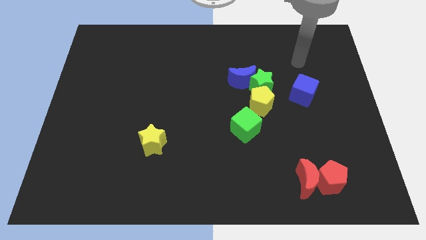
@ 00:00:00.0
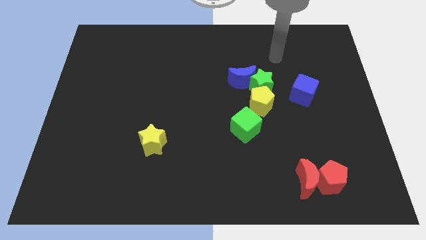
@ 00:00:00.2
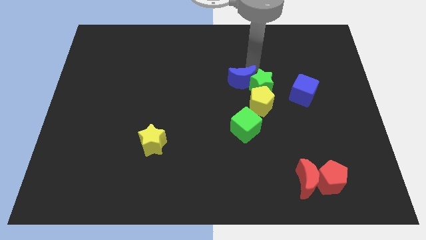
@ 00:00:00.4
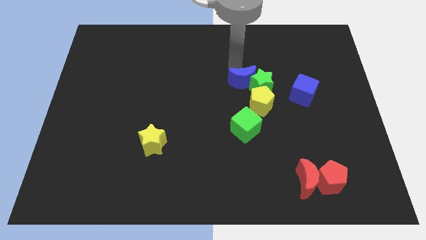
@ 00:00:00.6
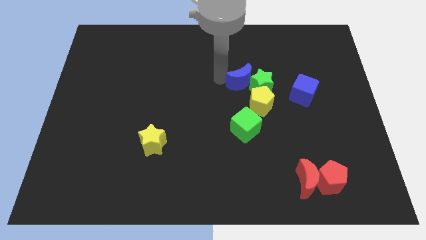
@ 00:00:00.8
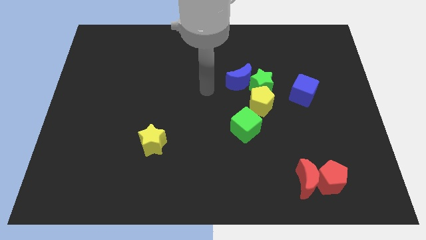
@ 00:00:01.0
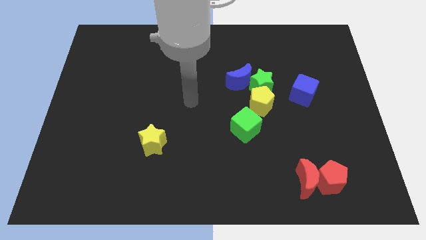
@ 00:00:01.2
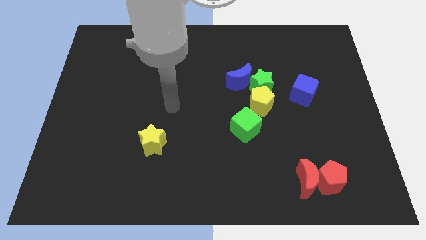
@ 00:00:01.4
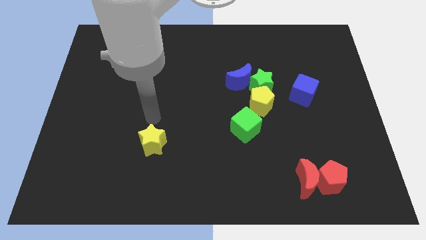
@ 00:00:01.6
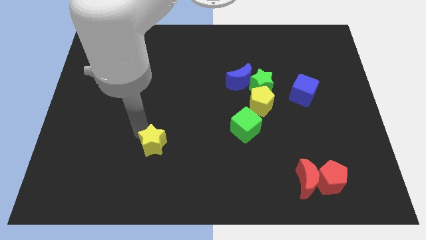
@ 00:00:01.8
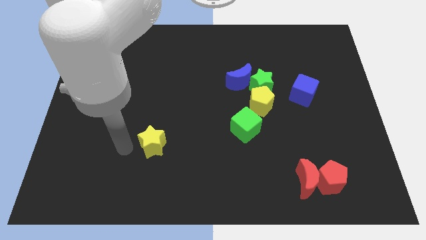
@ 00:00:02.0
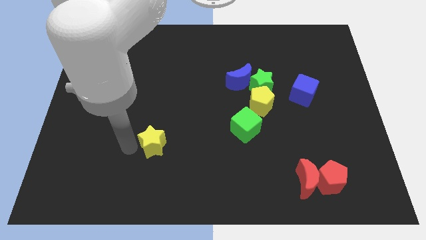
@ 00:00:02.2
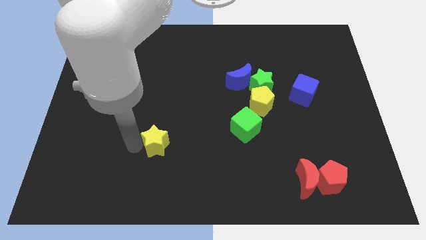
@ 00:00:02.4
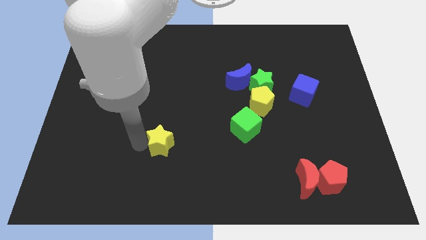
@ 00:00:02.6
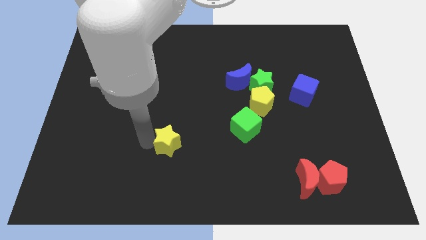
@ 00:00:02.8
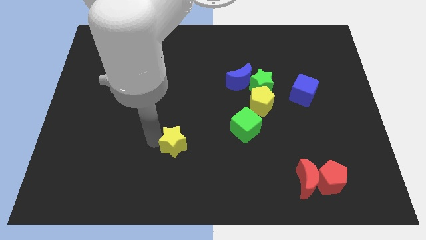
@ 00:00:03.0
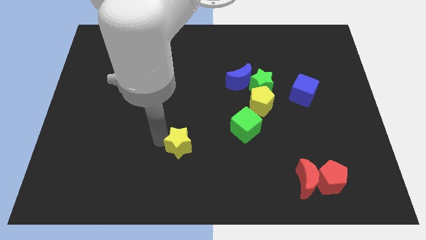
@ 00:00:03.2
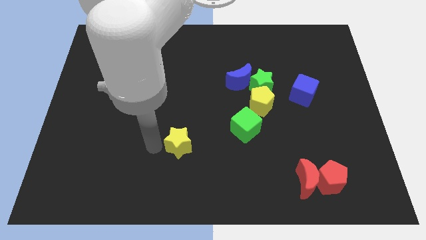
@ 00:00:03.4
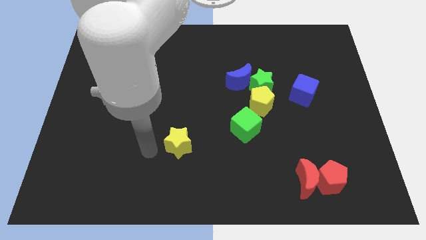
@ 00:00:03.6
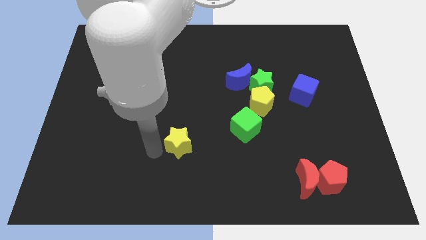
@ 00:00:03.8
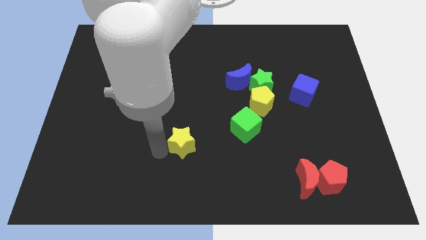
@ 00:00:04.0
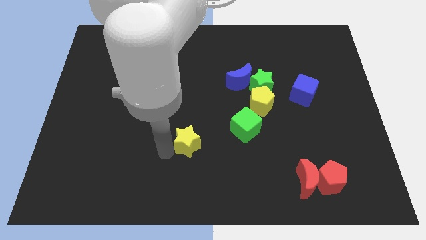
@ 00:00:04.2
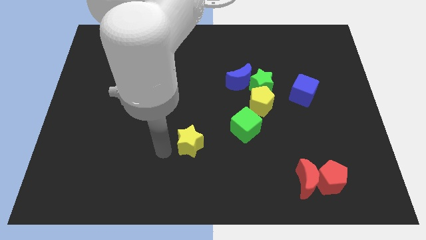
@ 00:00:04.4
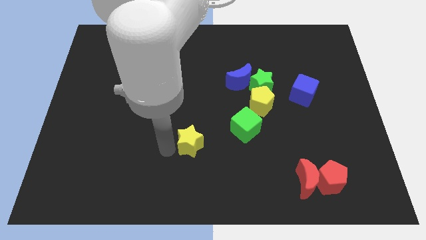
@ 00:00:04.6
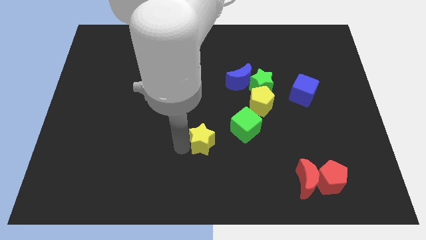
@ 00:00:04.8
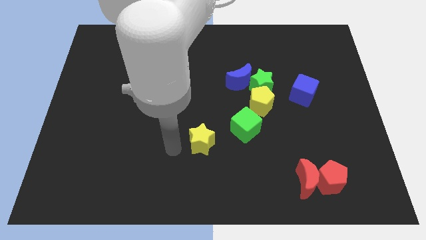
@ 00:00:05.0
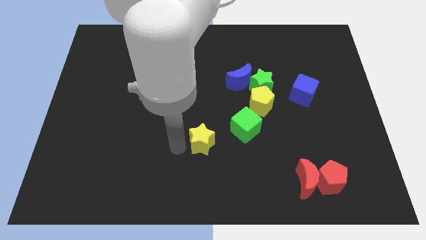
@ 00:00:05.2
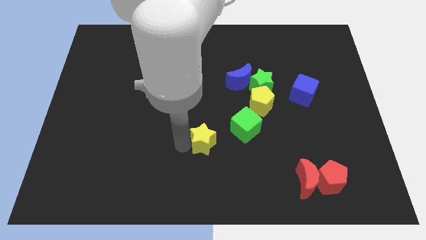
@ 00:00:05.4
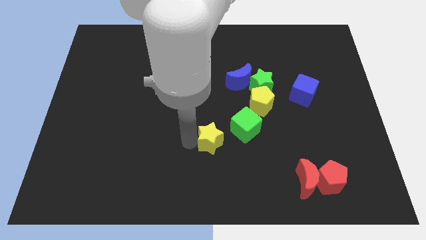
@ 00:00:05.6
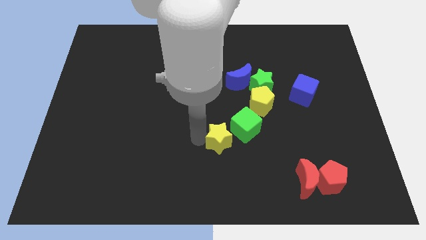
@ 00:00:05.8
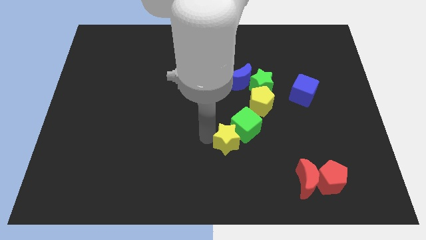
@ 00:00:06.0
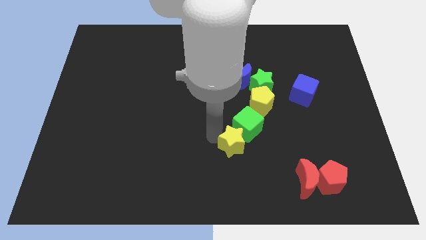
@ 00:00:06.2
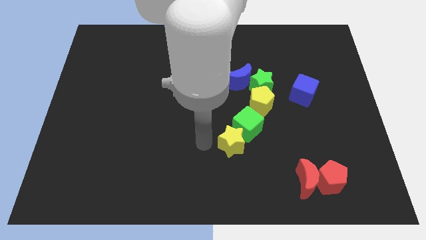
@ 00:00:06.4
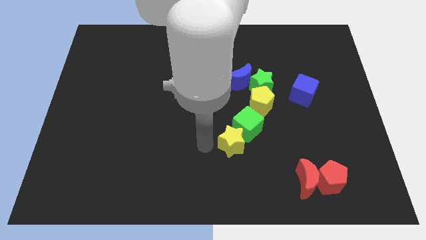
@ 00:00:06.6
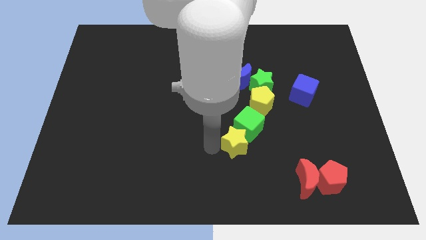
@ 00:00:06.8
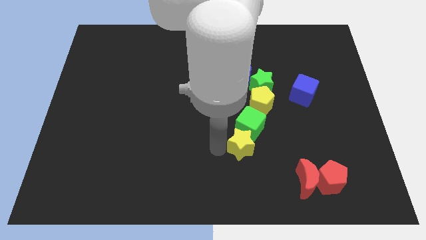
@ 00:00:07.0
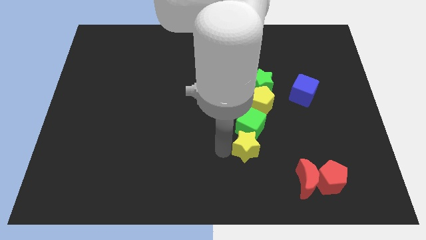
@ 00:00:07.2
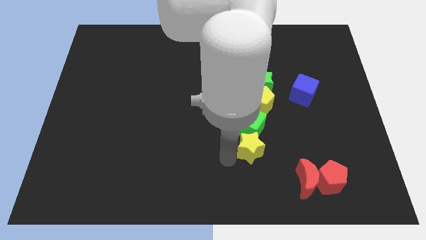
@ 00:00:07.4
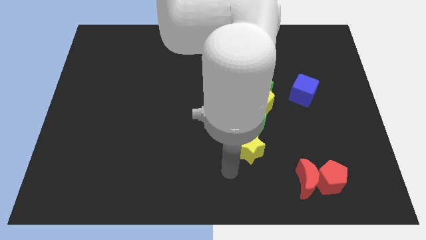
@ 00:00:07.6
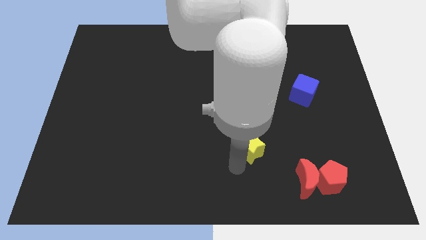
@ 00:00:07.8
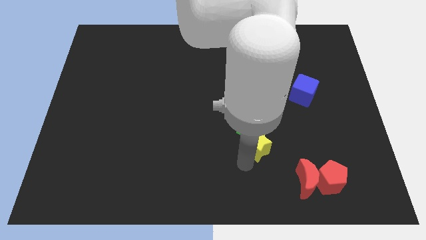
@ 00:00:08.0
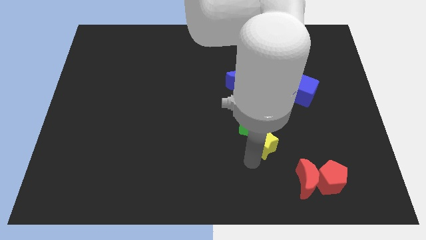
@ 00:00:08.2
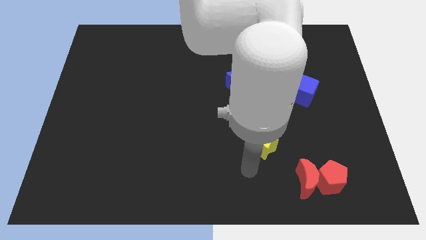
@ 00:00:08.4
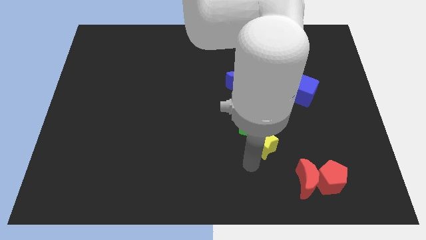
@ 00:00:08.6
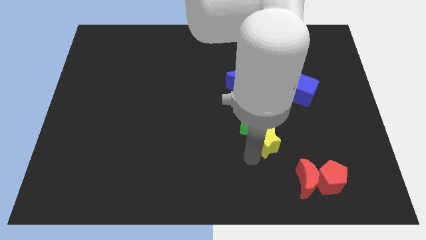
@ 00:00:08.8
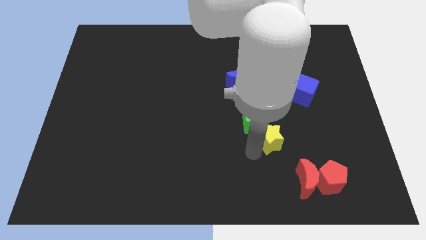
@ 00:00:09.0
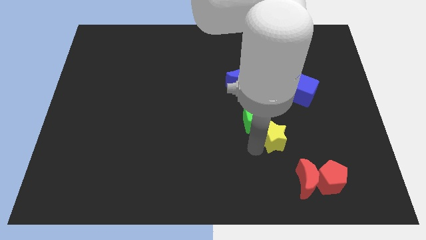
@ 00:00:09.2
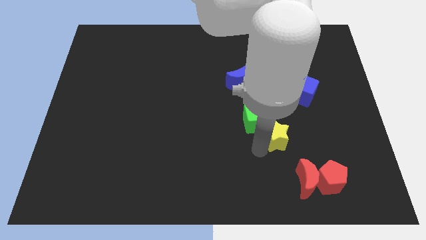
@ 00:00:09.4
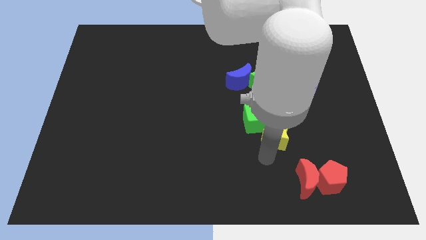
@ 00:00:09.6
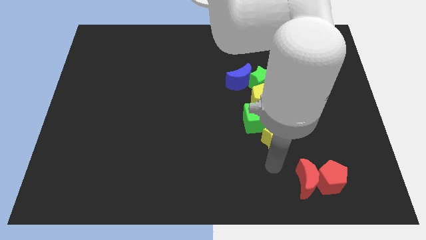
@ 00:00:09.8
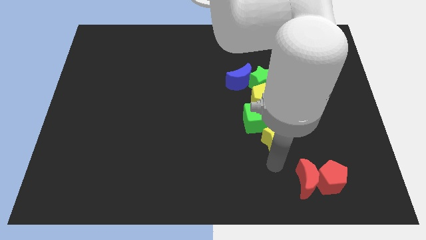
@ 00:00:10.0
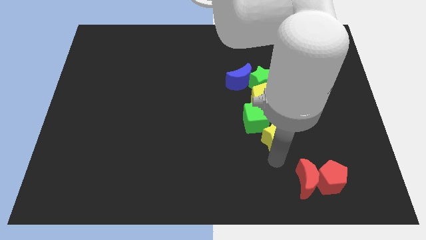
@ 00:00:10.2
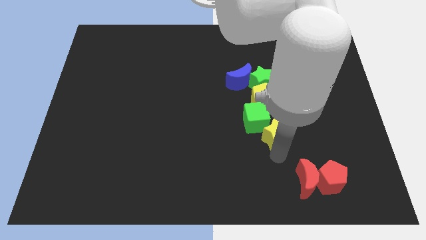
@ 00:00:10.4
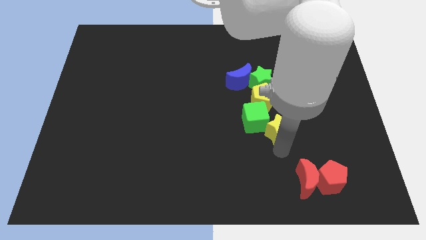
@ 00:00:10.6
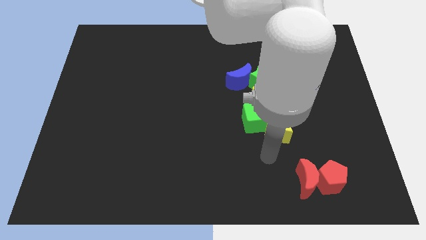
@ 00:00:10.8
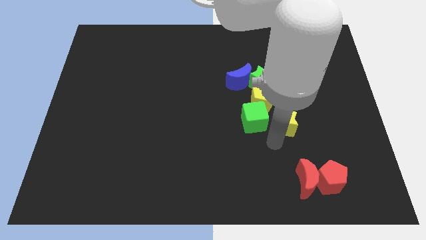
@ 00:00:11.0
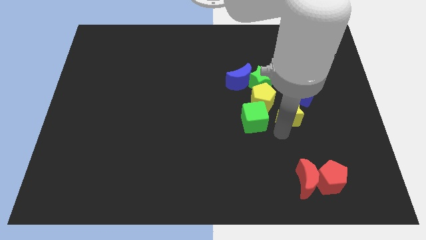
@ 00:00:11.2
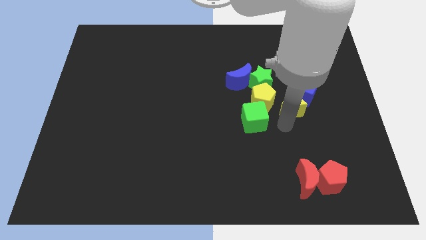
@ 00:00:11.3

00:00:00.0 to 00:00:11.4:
move the yellow star close to the blue cube
